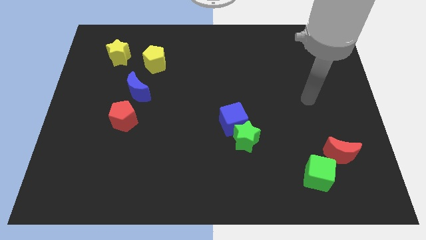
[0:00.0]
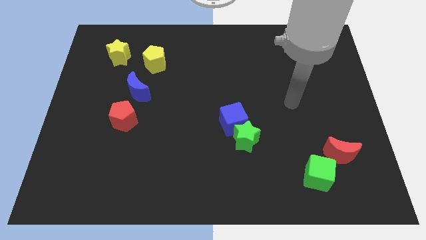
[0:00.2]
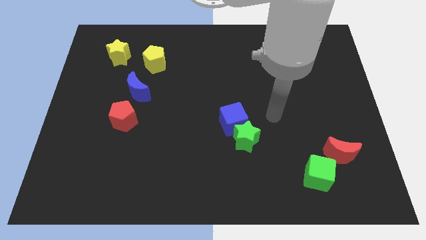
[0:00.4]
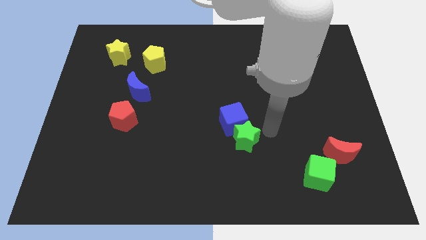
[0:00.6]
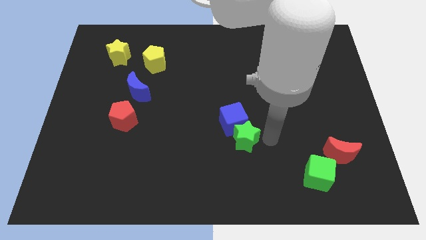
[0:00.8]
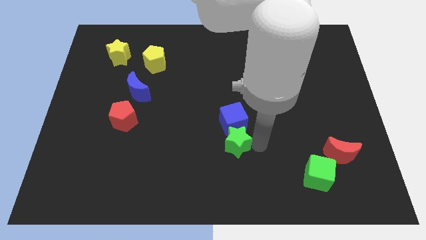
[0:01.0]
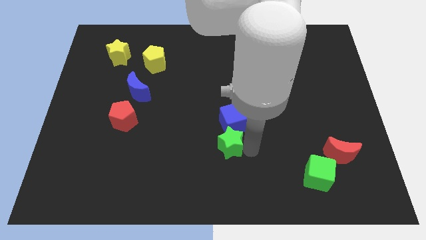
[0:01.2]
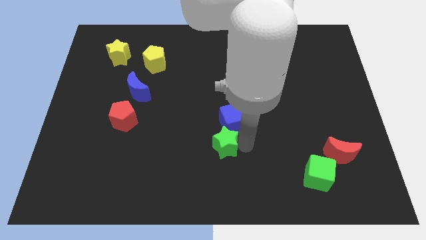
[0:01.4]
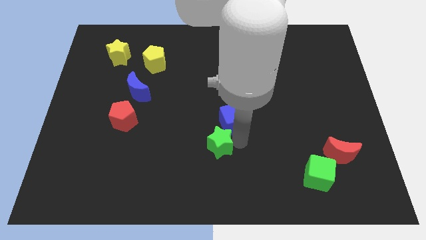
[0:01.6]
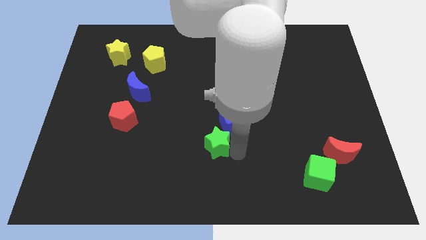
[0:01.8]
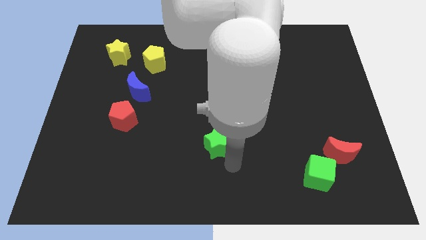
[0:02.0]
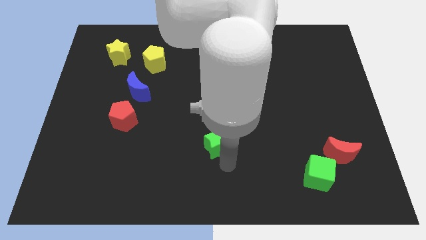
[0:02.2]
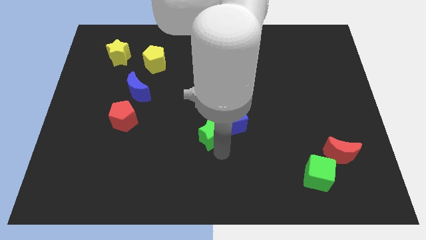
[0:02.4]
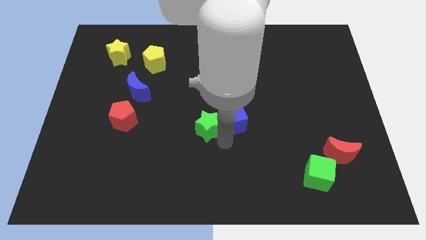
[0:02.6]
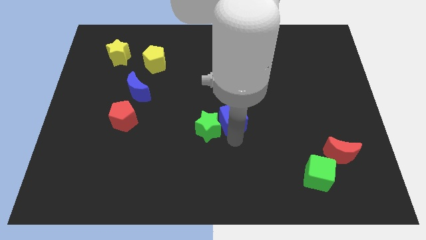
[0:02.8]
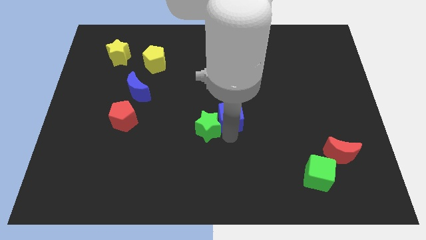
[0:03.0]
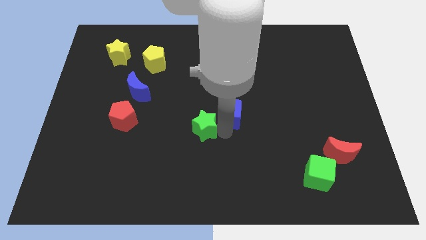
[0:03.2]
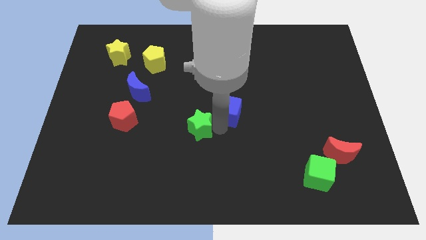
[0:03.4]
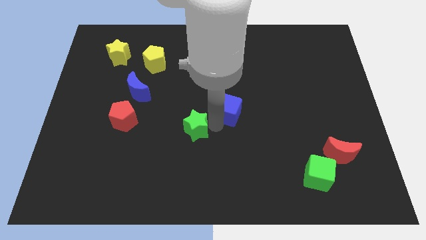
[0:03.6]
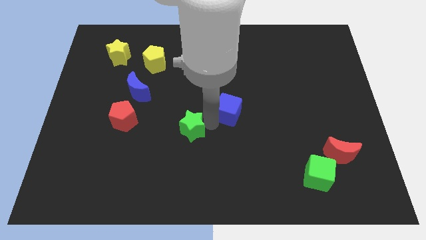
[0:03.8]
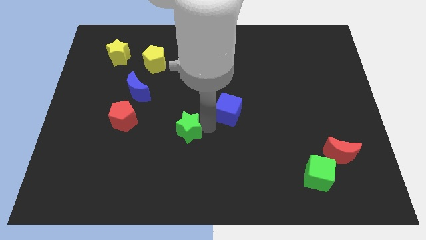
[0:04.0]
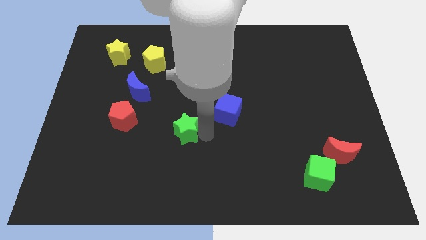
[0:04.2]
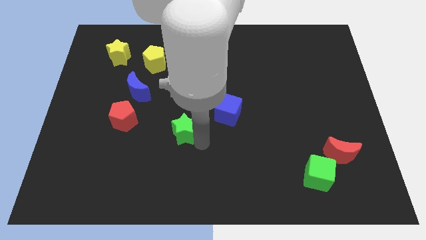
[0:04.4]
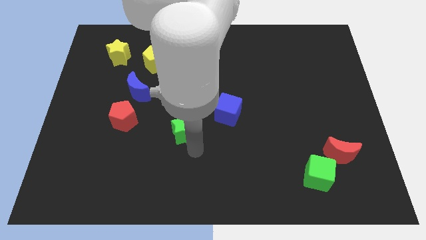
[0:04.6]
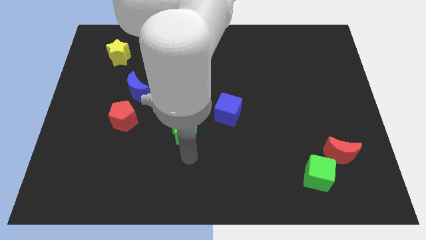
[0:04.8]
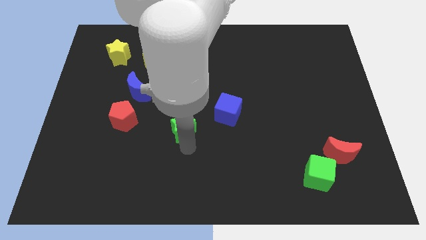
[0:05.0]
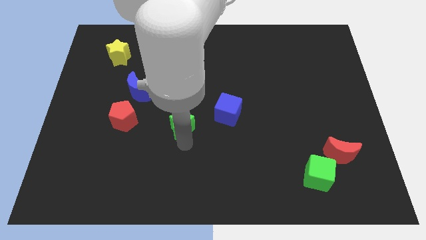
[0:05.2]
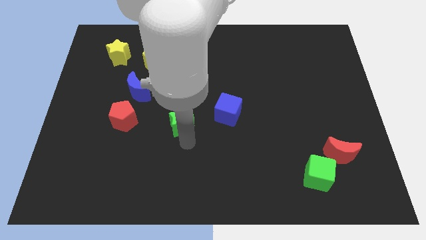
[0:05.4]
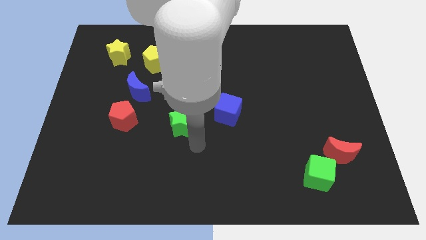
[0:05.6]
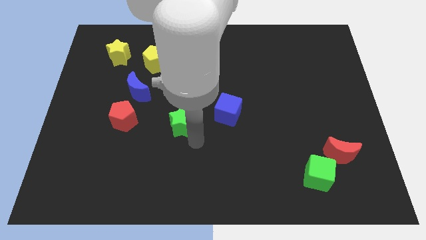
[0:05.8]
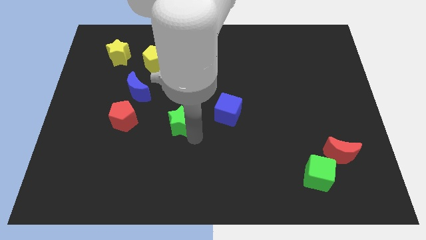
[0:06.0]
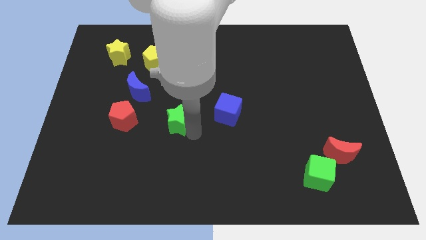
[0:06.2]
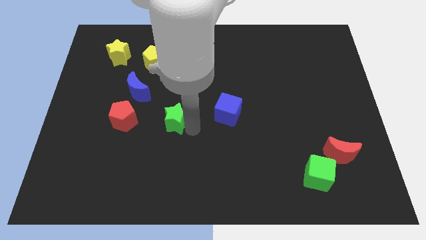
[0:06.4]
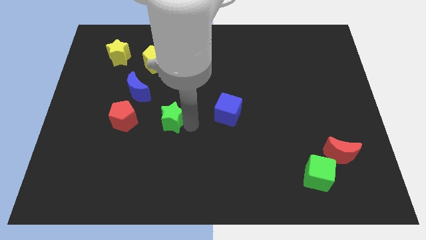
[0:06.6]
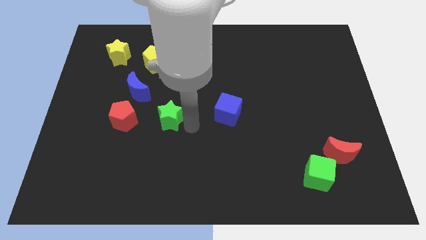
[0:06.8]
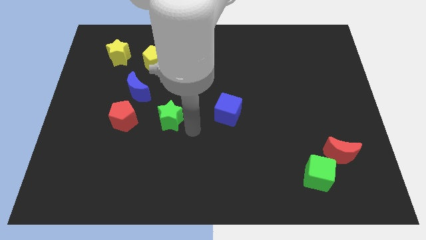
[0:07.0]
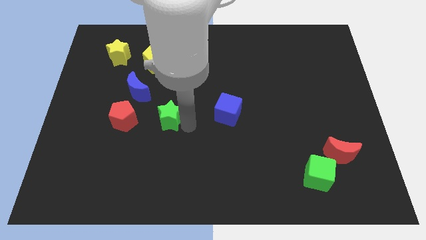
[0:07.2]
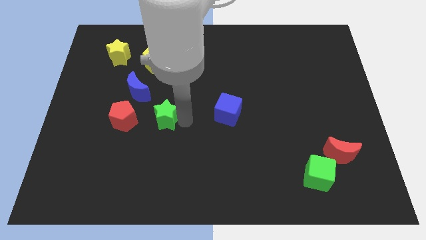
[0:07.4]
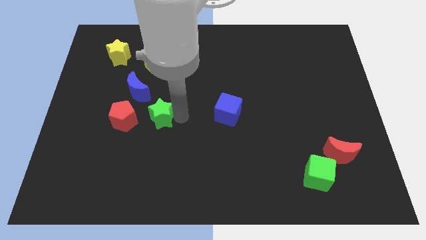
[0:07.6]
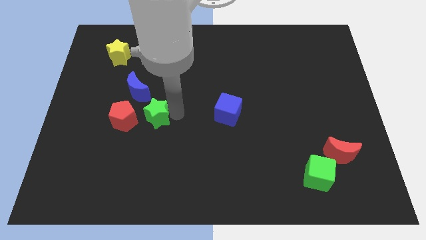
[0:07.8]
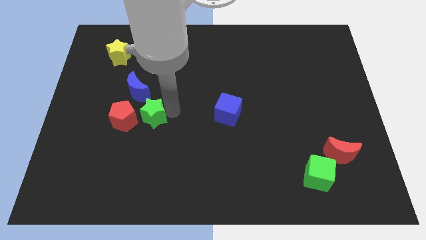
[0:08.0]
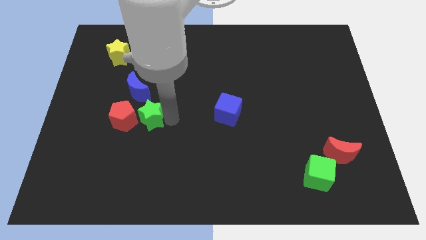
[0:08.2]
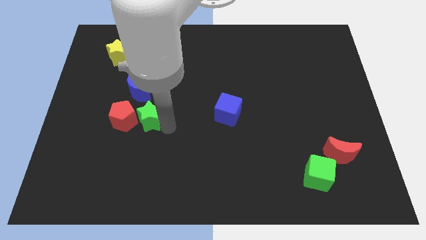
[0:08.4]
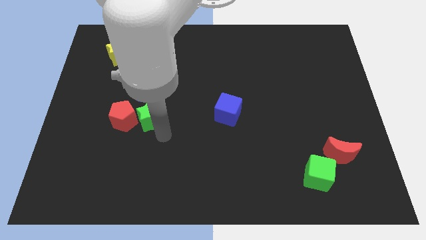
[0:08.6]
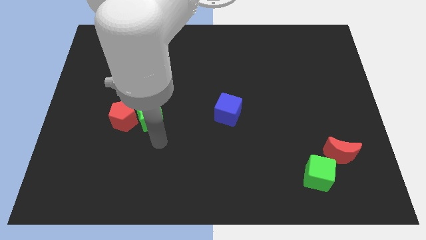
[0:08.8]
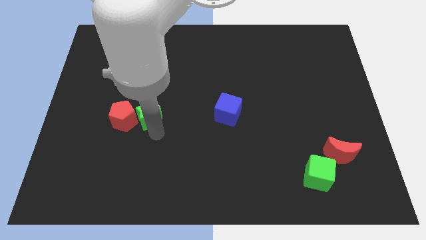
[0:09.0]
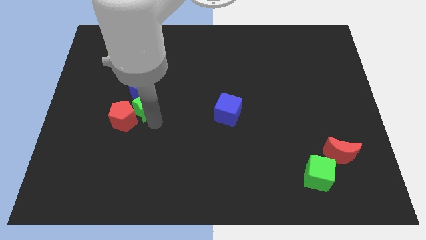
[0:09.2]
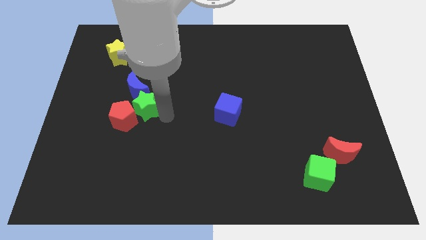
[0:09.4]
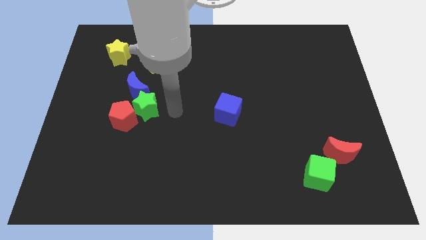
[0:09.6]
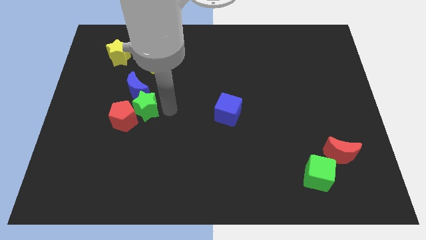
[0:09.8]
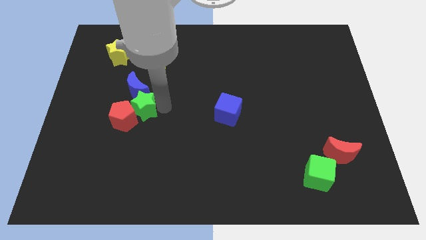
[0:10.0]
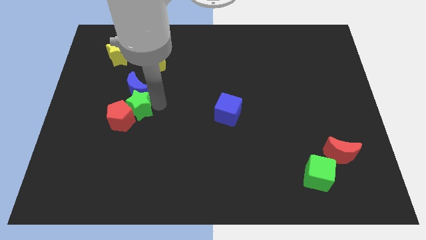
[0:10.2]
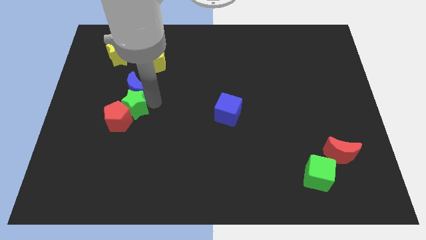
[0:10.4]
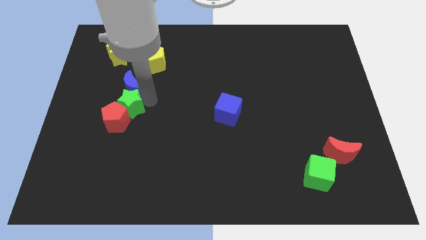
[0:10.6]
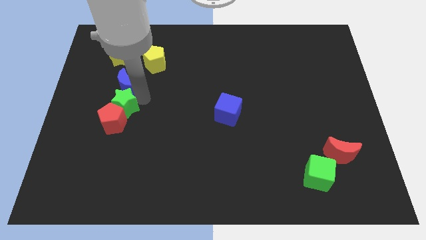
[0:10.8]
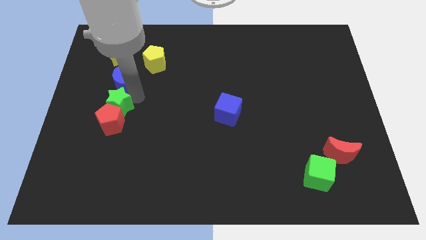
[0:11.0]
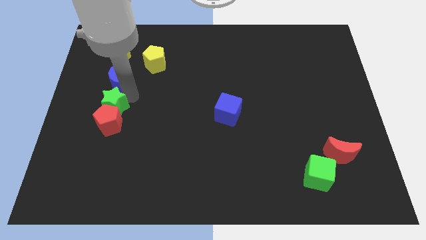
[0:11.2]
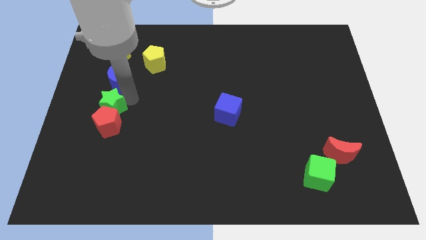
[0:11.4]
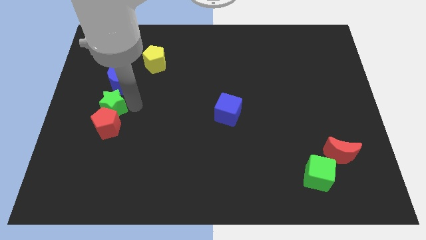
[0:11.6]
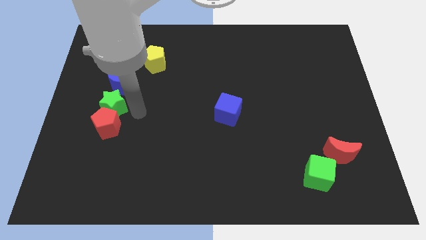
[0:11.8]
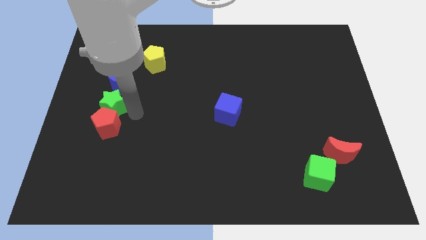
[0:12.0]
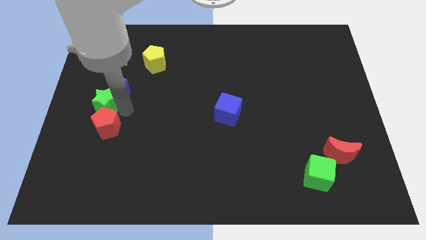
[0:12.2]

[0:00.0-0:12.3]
put the green star to the left side of the board
